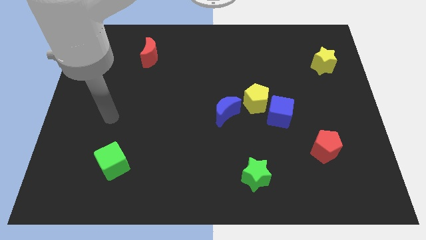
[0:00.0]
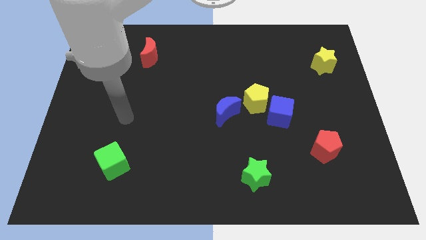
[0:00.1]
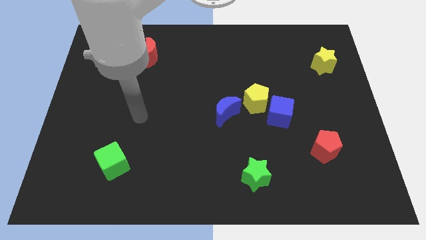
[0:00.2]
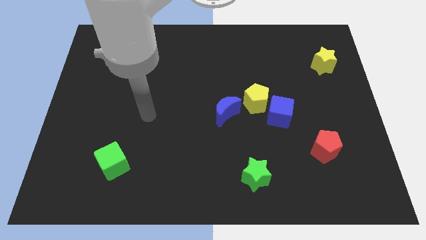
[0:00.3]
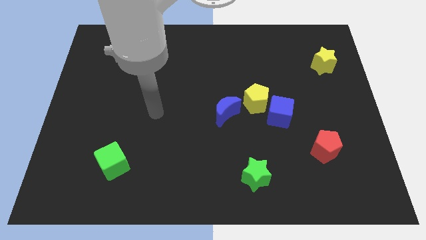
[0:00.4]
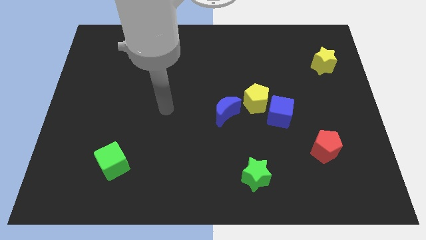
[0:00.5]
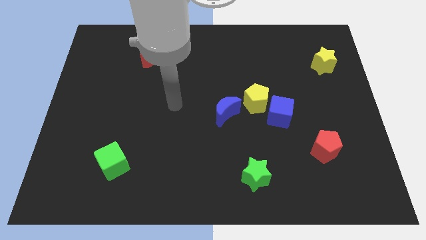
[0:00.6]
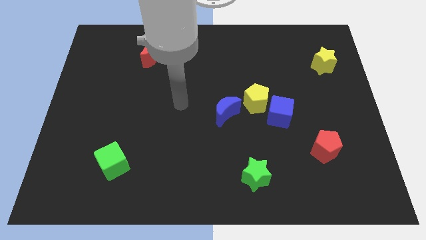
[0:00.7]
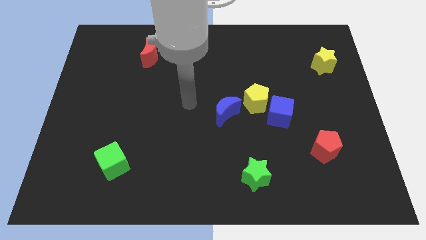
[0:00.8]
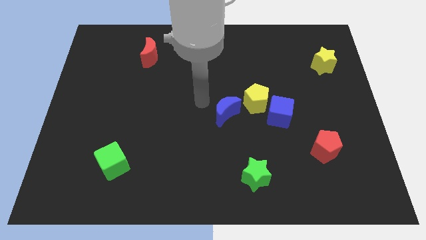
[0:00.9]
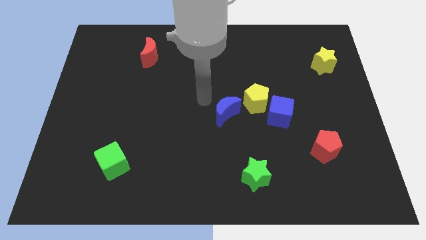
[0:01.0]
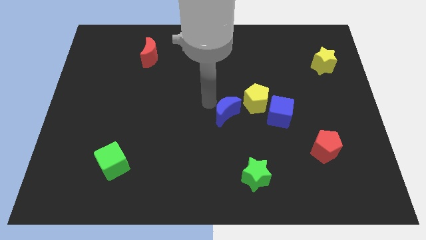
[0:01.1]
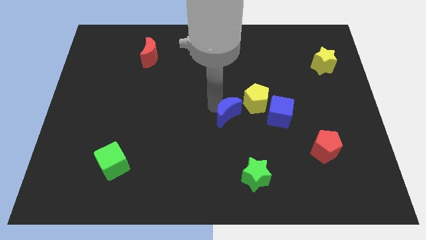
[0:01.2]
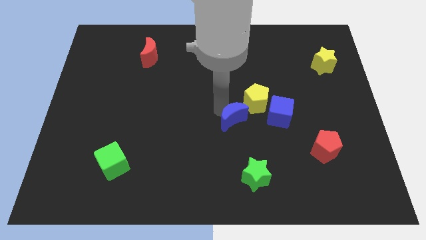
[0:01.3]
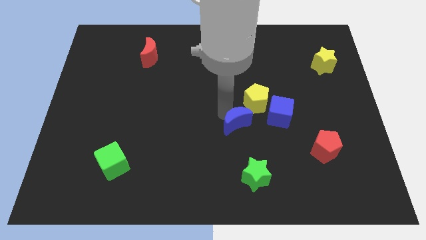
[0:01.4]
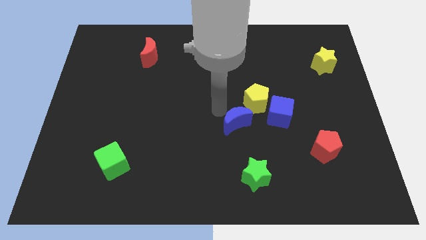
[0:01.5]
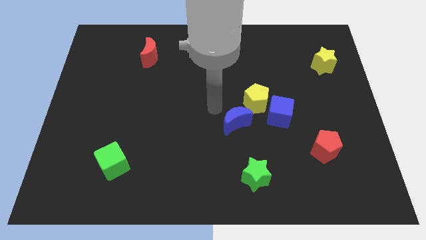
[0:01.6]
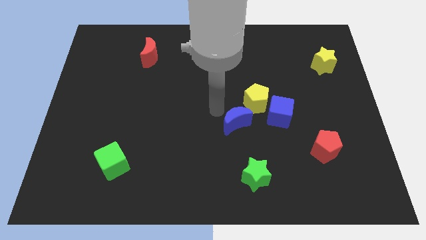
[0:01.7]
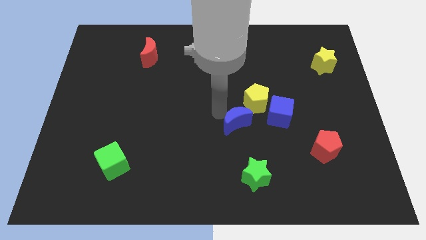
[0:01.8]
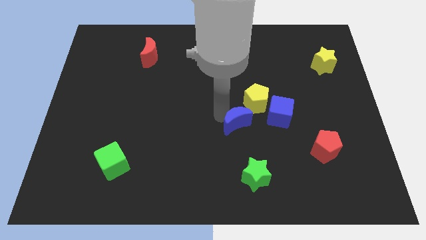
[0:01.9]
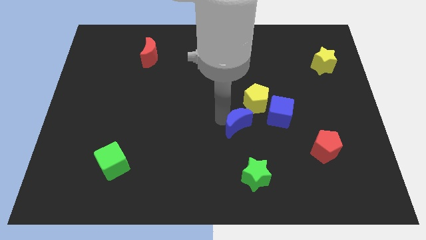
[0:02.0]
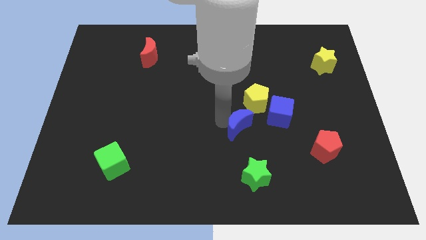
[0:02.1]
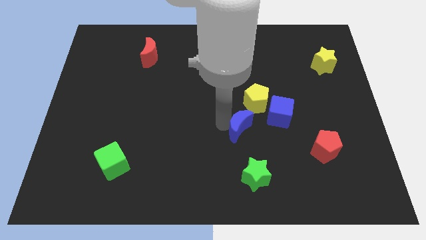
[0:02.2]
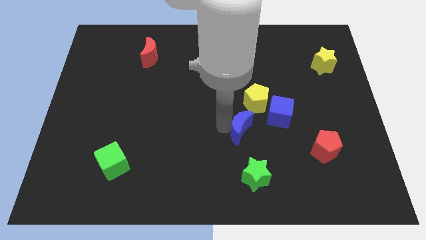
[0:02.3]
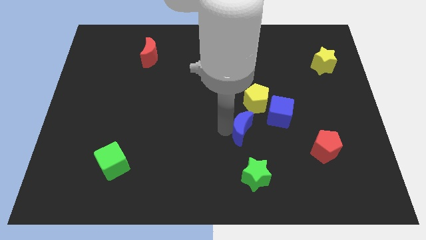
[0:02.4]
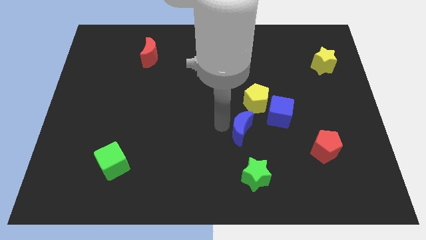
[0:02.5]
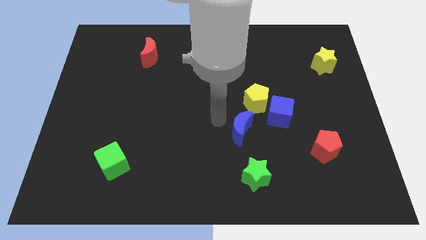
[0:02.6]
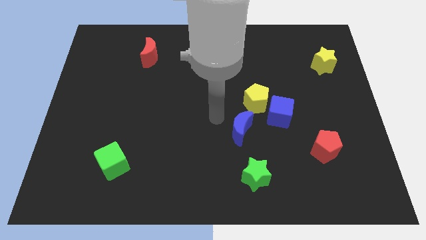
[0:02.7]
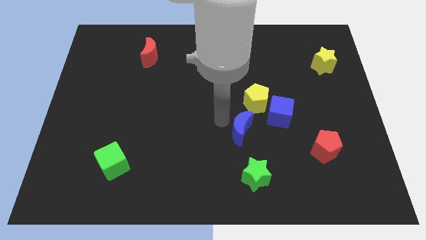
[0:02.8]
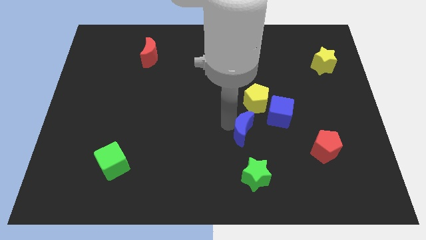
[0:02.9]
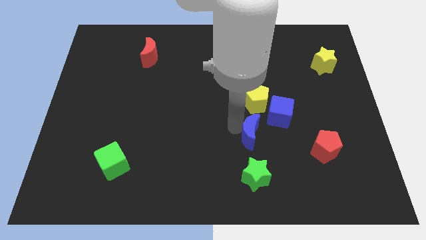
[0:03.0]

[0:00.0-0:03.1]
slide the blue moon somewhat down and right

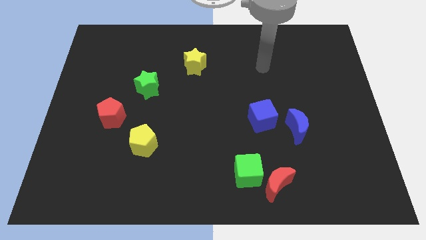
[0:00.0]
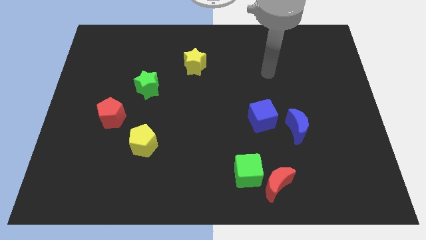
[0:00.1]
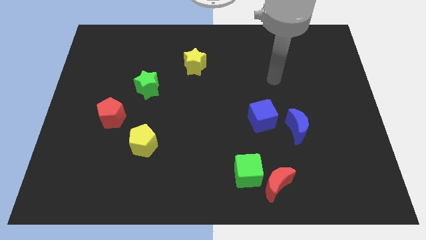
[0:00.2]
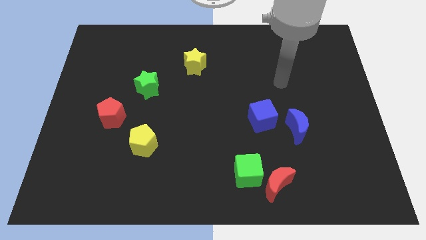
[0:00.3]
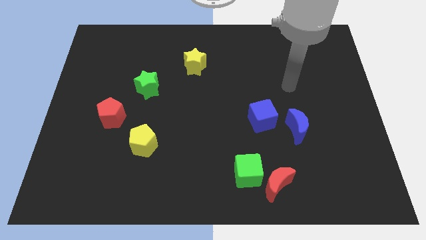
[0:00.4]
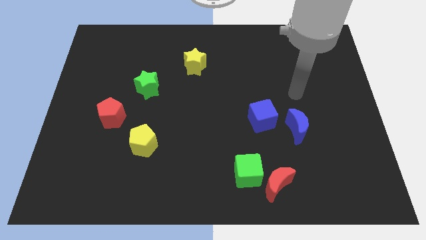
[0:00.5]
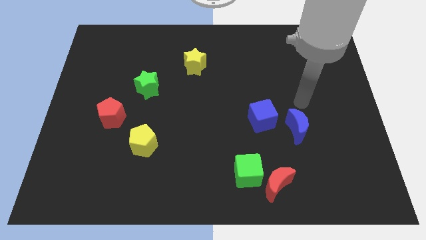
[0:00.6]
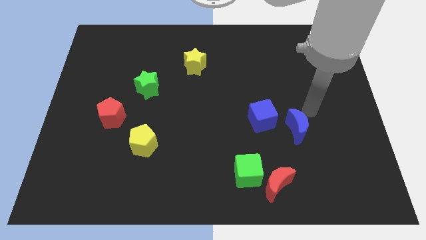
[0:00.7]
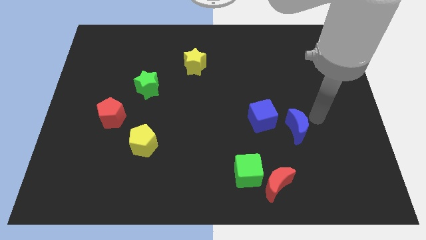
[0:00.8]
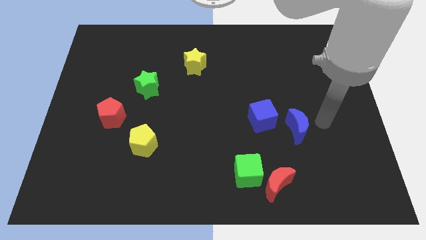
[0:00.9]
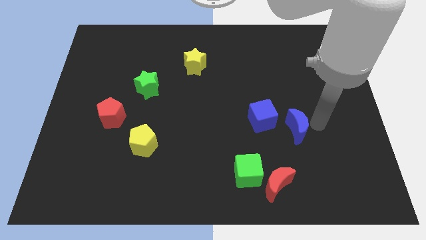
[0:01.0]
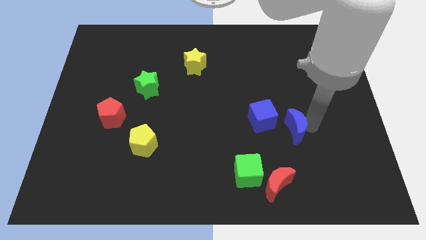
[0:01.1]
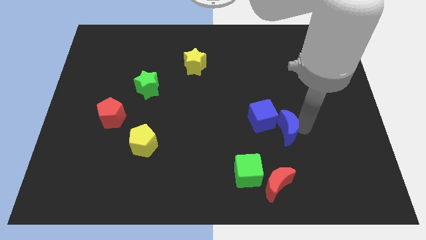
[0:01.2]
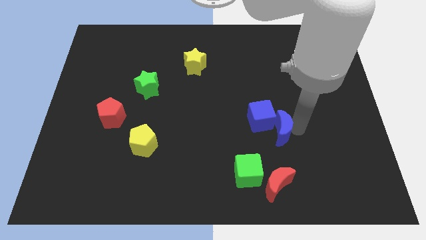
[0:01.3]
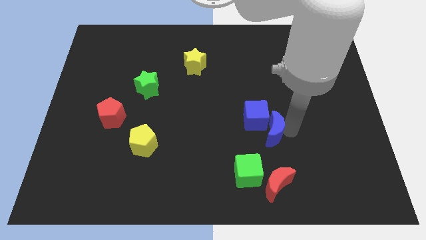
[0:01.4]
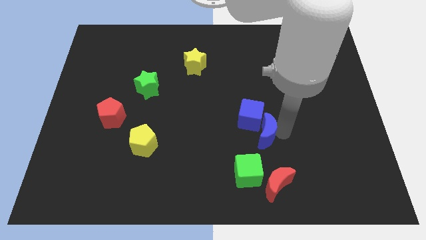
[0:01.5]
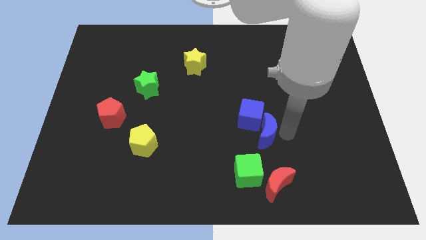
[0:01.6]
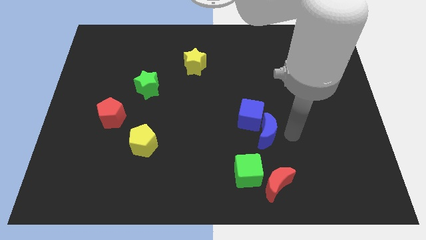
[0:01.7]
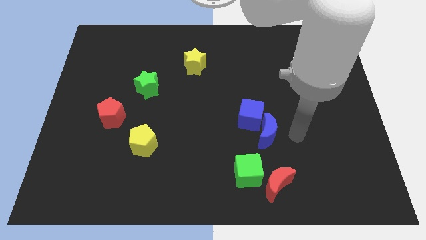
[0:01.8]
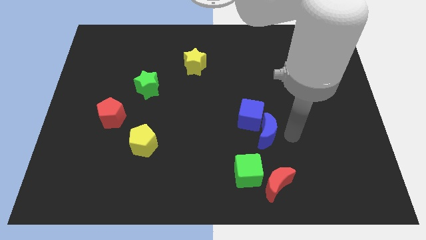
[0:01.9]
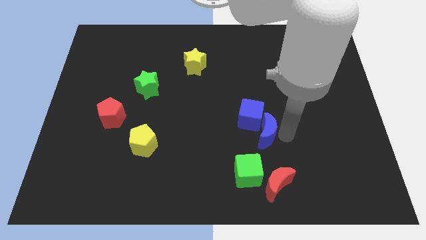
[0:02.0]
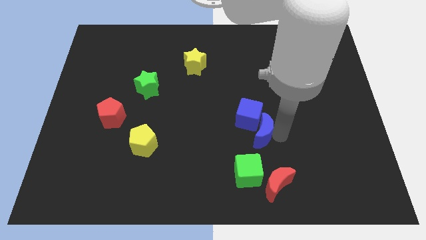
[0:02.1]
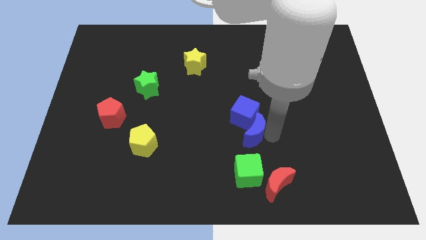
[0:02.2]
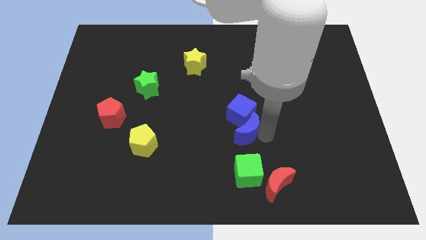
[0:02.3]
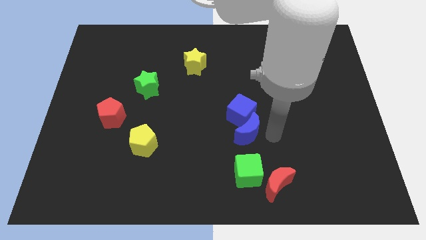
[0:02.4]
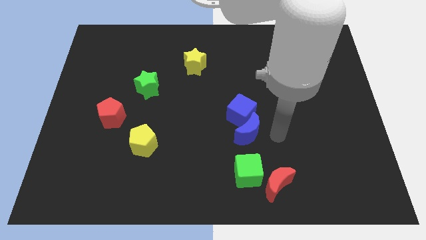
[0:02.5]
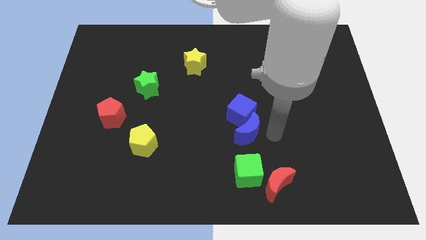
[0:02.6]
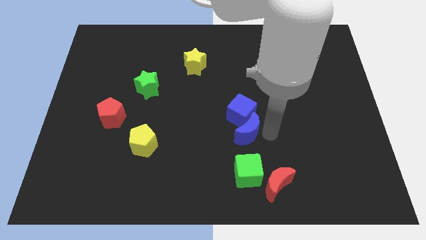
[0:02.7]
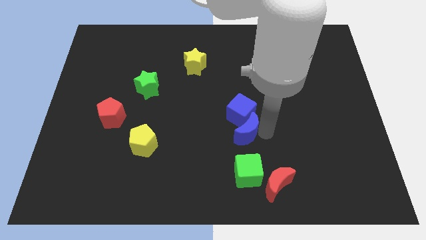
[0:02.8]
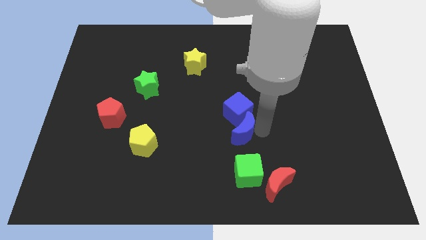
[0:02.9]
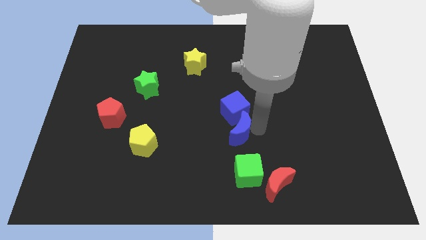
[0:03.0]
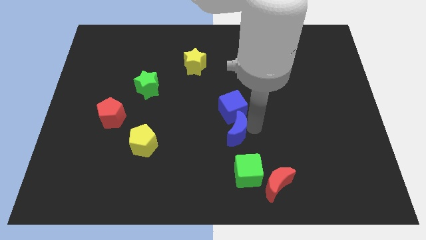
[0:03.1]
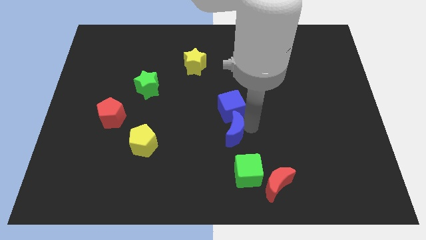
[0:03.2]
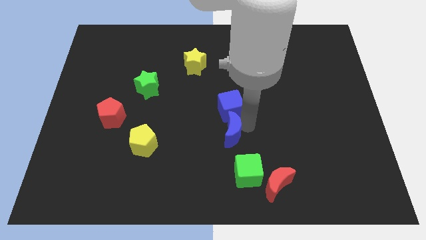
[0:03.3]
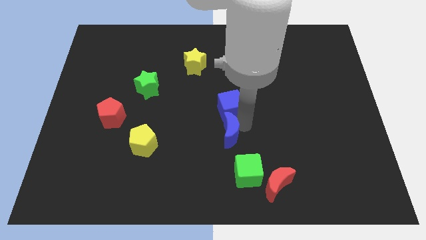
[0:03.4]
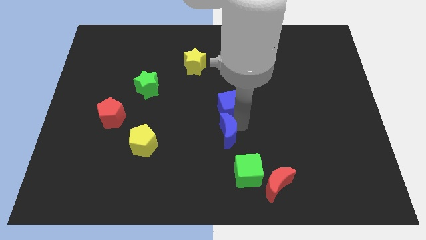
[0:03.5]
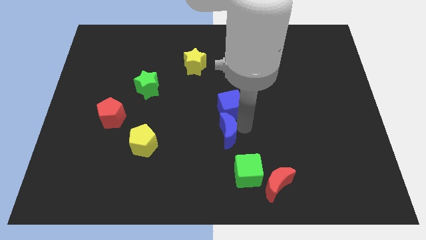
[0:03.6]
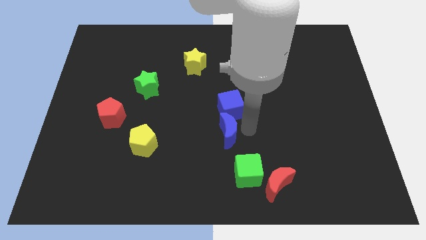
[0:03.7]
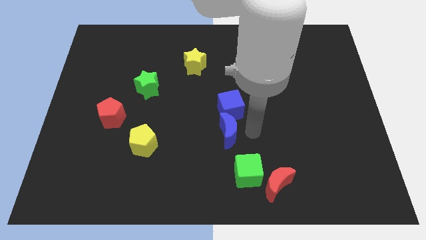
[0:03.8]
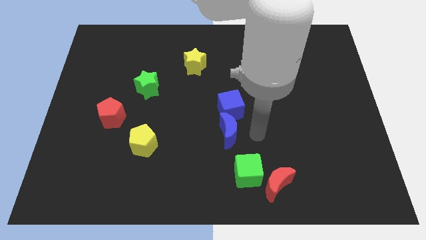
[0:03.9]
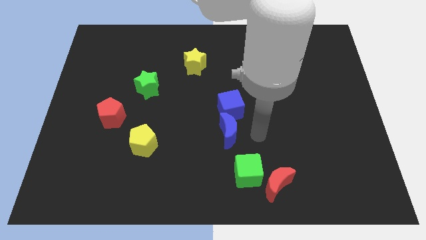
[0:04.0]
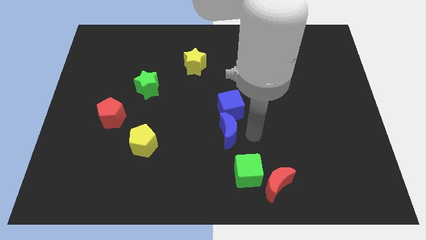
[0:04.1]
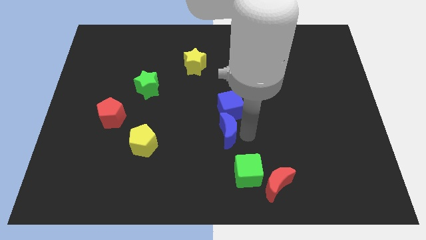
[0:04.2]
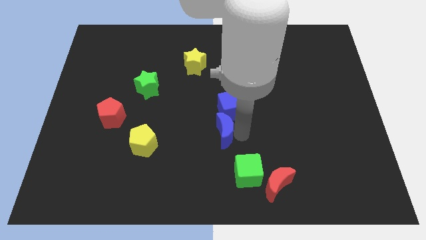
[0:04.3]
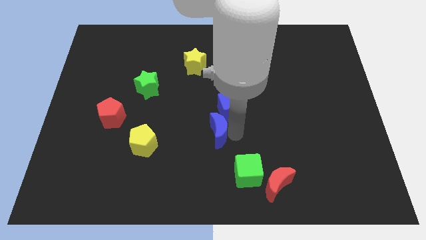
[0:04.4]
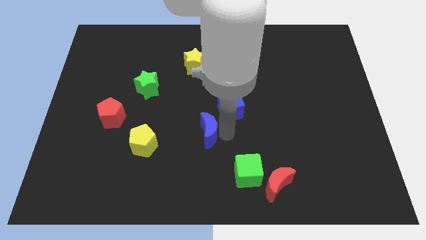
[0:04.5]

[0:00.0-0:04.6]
push the blue moon left
